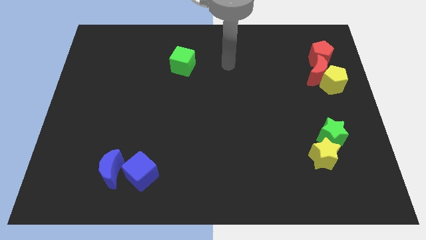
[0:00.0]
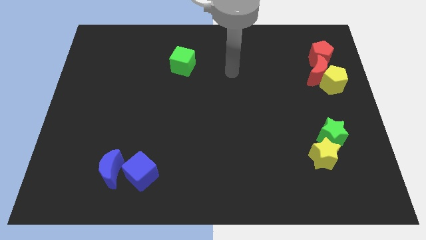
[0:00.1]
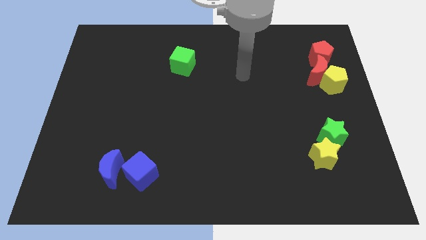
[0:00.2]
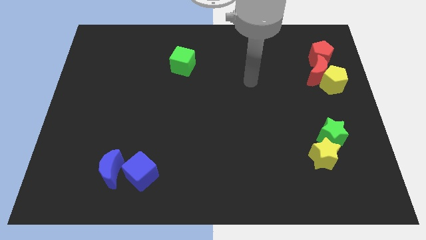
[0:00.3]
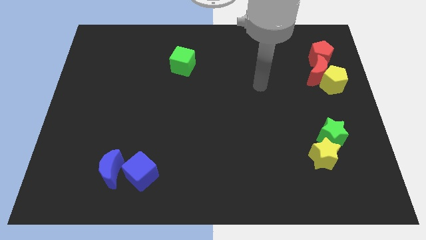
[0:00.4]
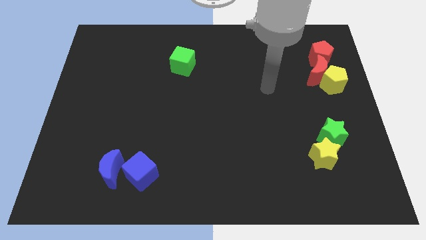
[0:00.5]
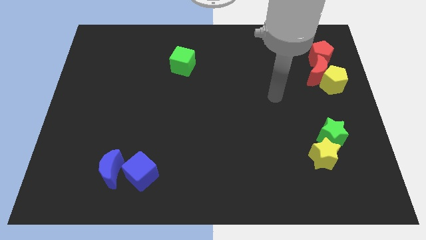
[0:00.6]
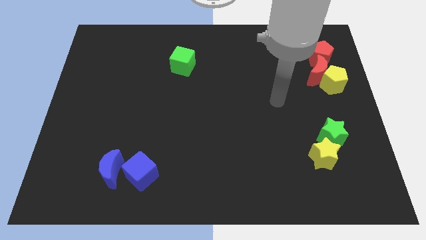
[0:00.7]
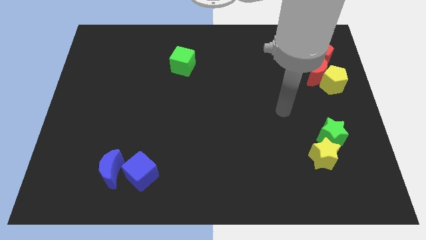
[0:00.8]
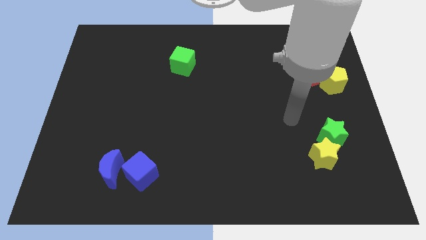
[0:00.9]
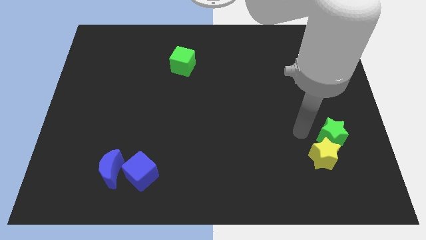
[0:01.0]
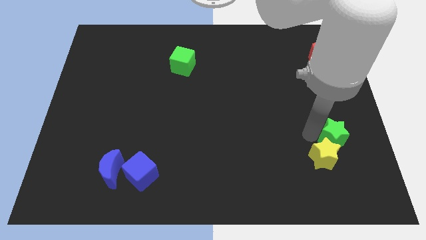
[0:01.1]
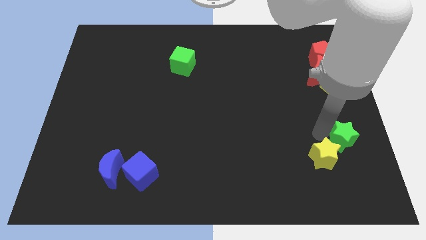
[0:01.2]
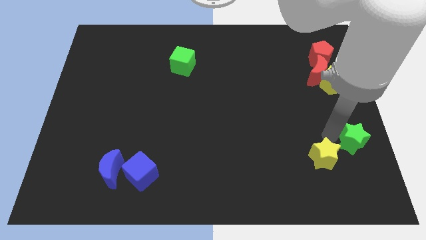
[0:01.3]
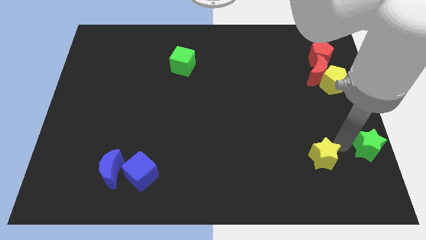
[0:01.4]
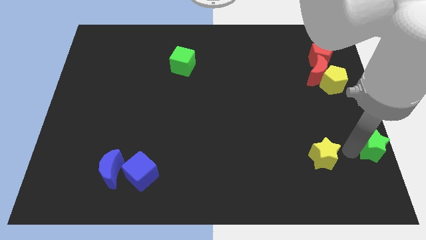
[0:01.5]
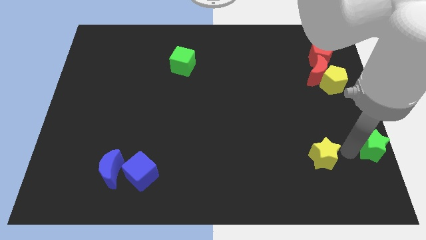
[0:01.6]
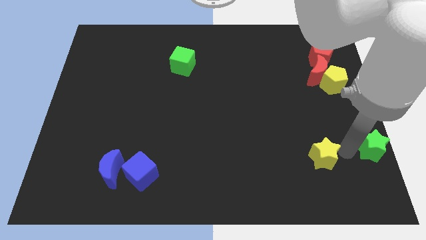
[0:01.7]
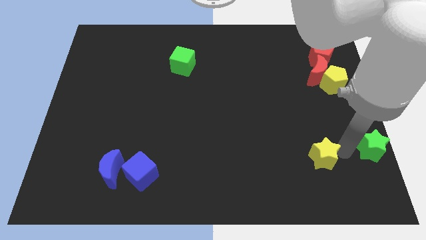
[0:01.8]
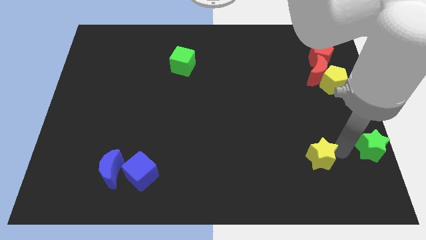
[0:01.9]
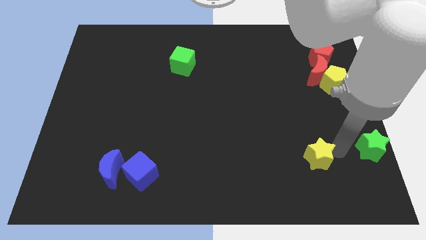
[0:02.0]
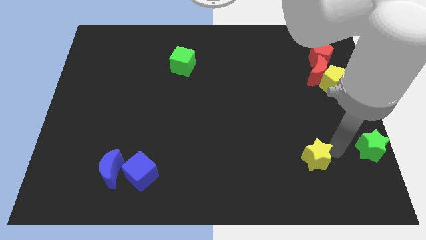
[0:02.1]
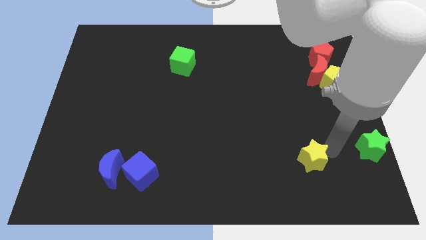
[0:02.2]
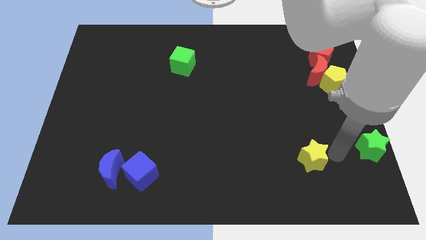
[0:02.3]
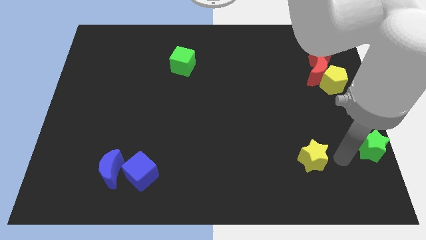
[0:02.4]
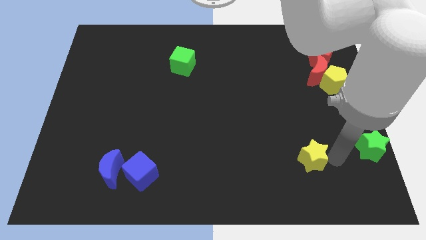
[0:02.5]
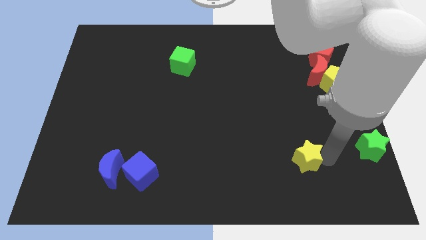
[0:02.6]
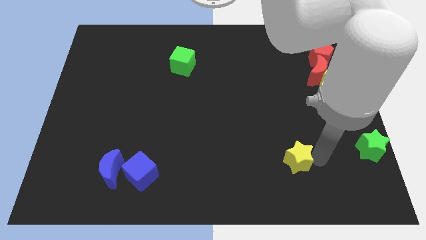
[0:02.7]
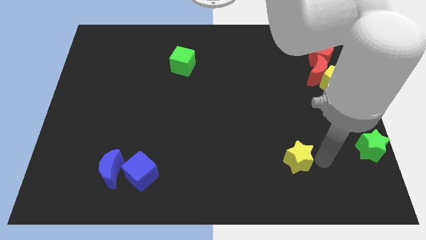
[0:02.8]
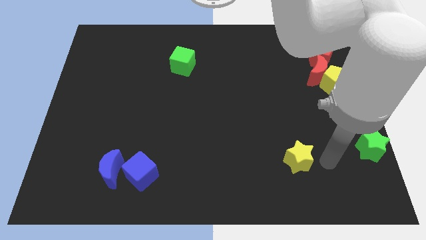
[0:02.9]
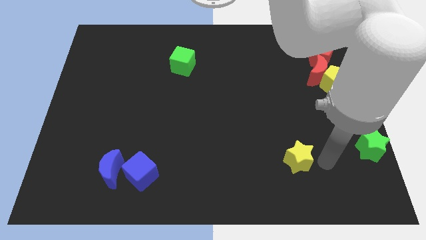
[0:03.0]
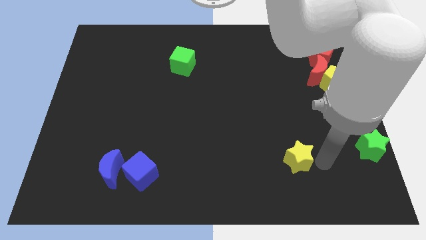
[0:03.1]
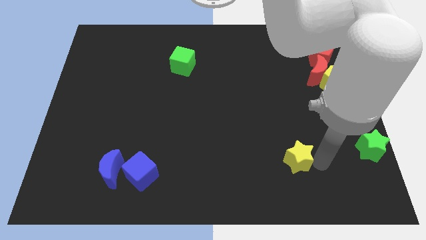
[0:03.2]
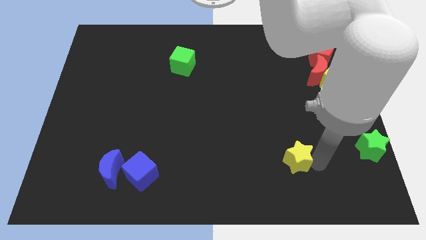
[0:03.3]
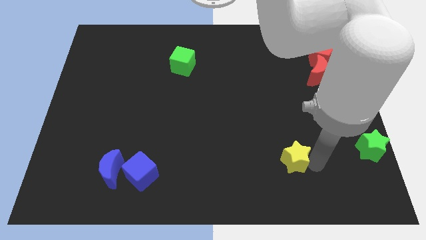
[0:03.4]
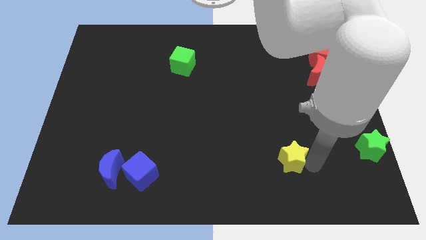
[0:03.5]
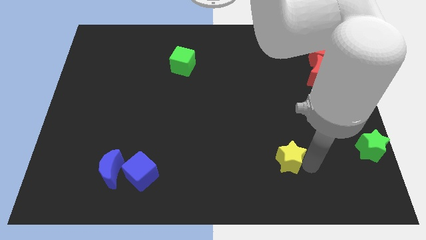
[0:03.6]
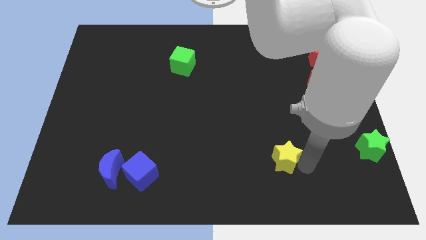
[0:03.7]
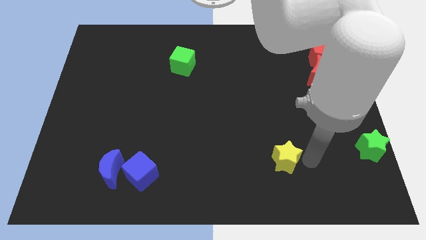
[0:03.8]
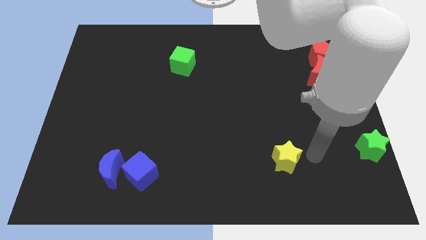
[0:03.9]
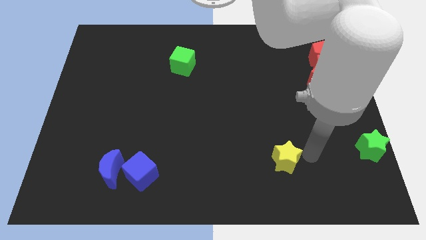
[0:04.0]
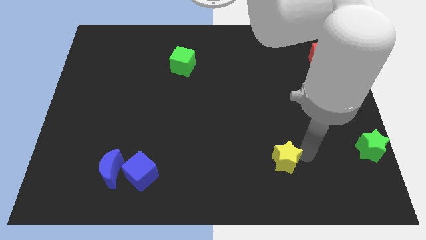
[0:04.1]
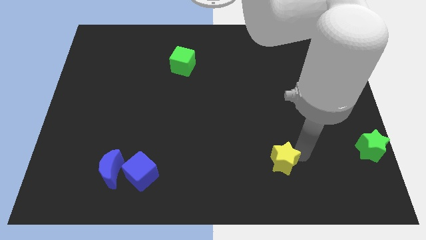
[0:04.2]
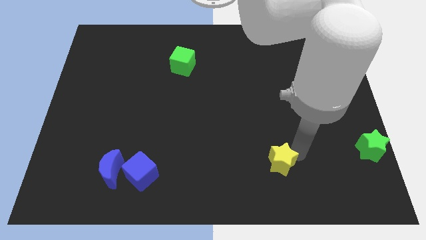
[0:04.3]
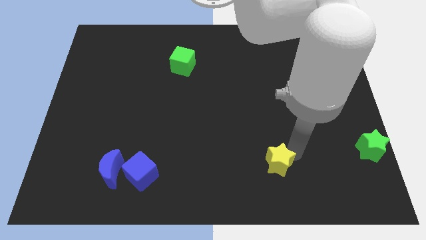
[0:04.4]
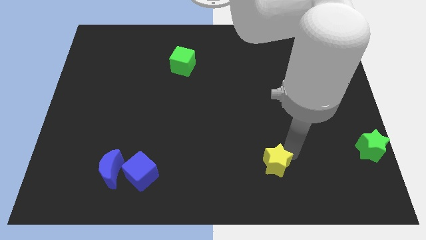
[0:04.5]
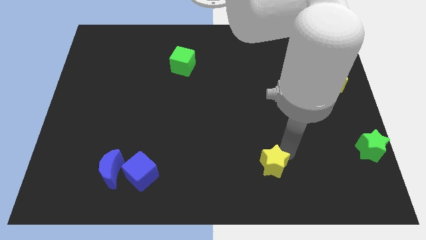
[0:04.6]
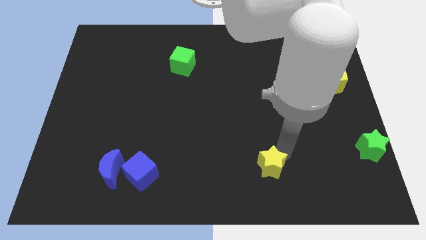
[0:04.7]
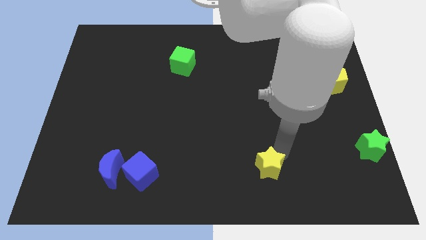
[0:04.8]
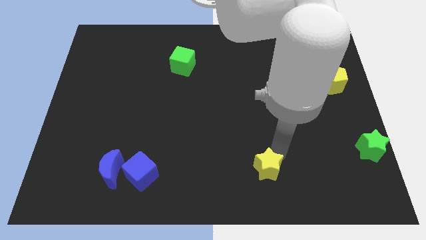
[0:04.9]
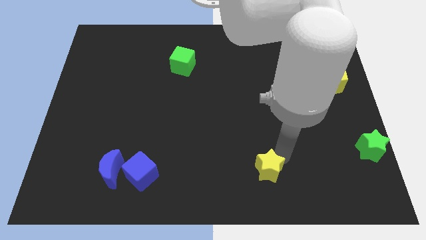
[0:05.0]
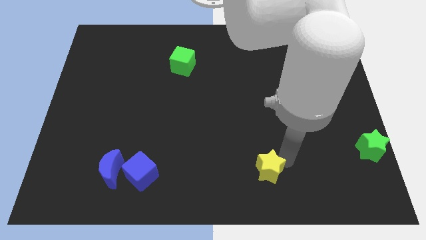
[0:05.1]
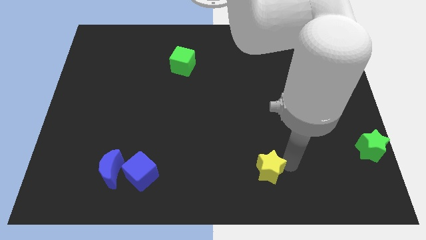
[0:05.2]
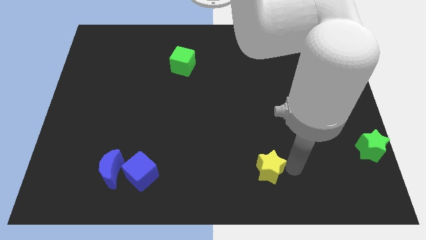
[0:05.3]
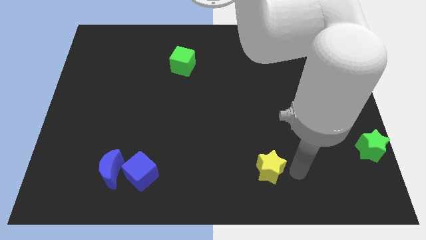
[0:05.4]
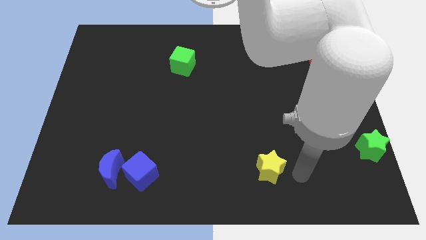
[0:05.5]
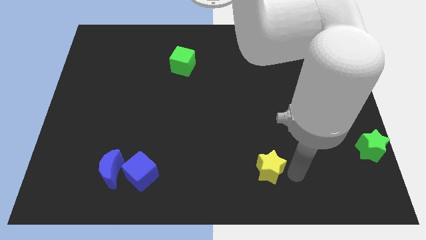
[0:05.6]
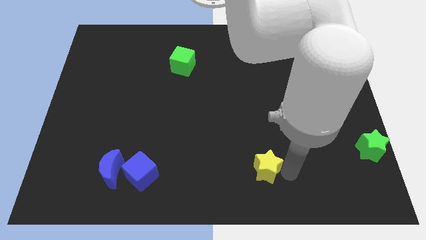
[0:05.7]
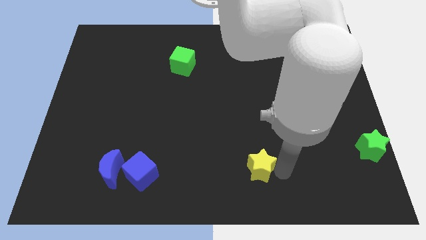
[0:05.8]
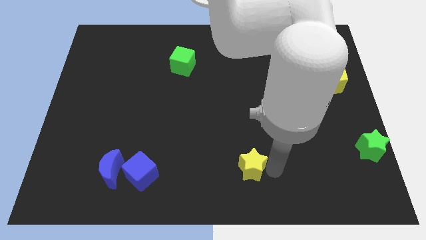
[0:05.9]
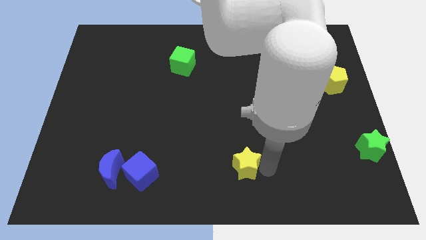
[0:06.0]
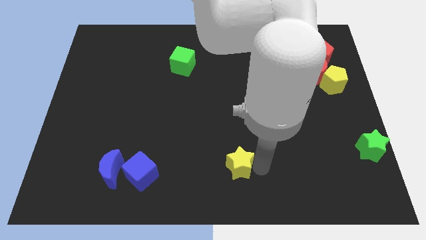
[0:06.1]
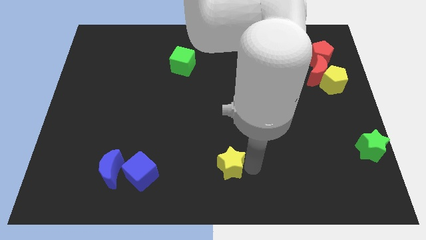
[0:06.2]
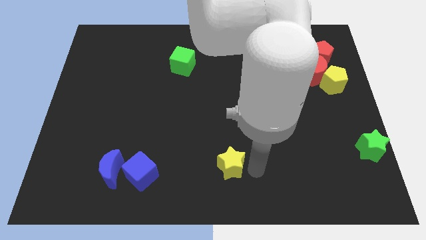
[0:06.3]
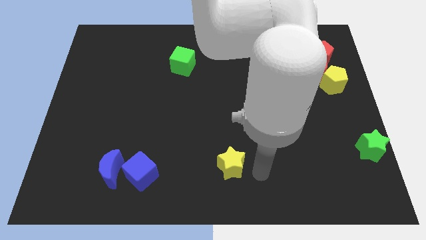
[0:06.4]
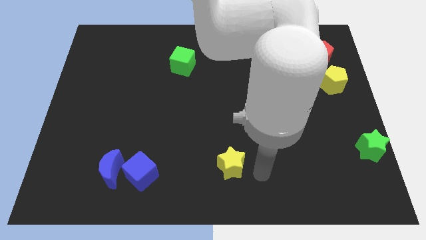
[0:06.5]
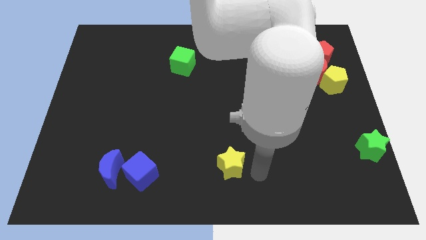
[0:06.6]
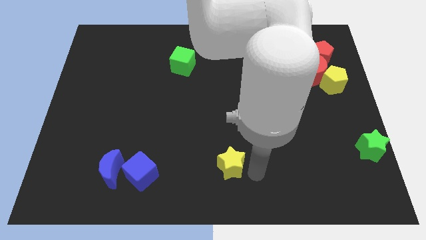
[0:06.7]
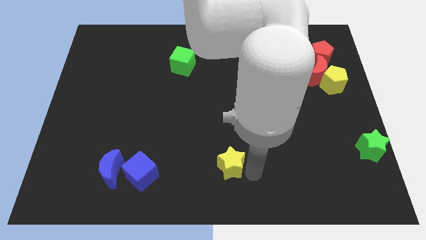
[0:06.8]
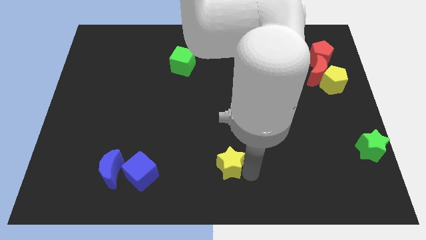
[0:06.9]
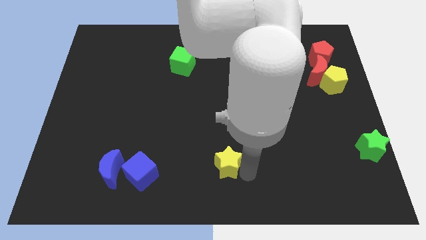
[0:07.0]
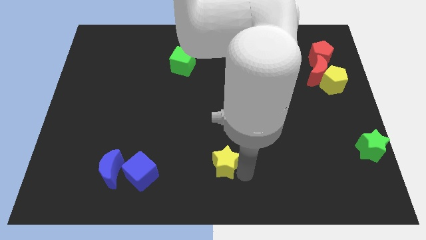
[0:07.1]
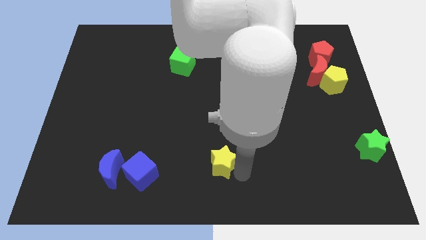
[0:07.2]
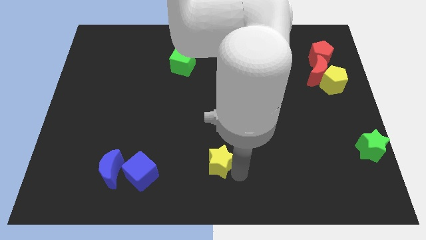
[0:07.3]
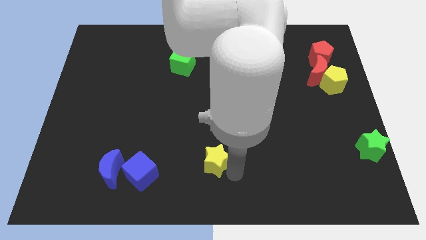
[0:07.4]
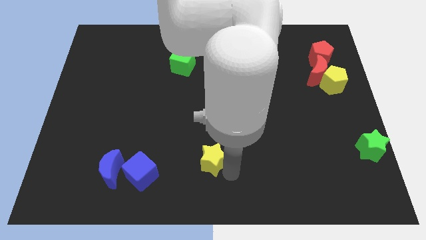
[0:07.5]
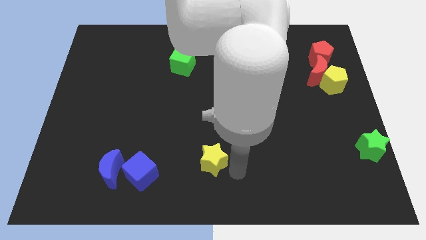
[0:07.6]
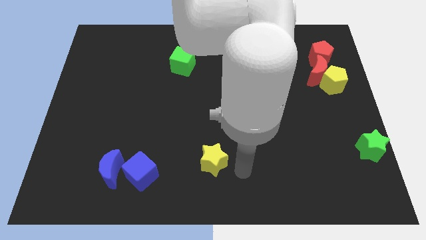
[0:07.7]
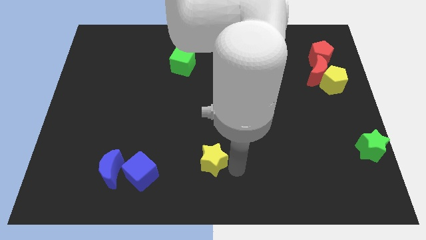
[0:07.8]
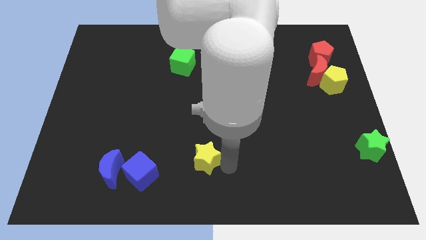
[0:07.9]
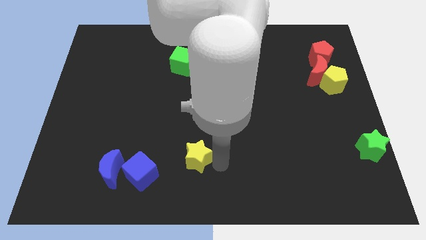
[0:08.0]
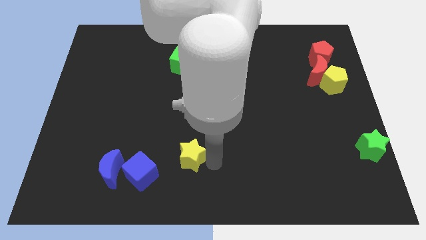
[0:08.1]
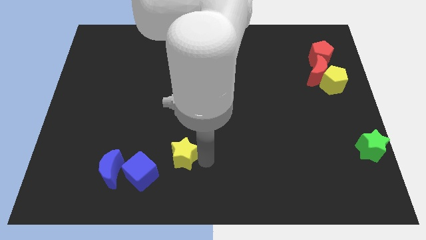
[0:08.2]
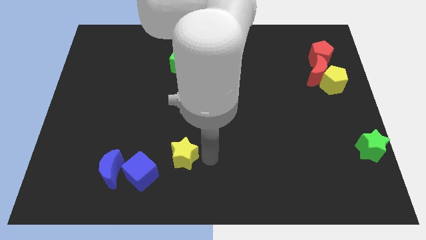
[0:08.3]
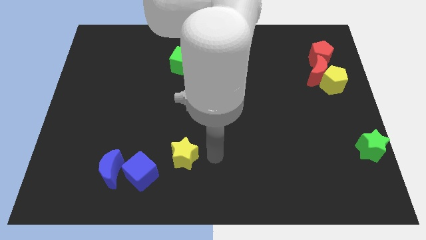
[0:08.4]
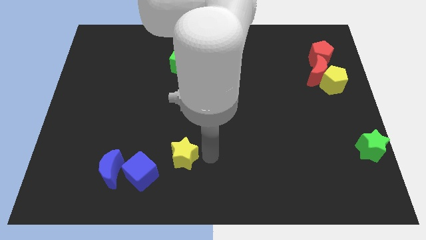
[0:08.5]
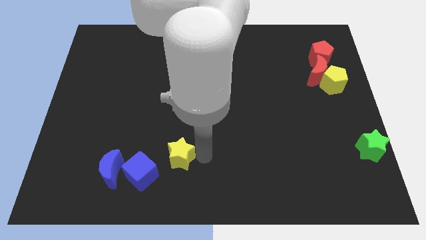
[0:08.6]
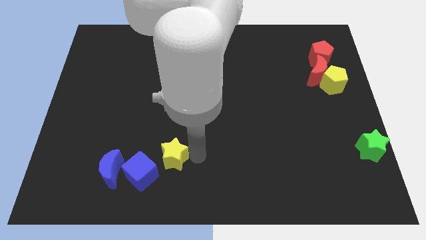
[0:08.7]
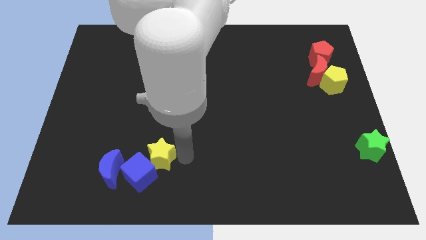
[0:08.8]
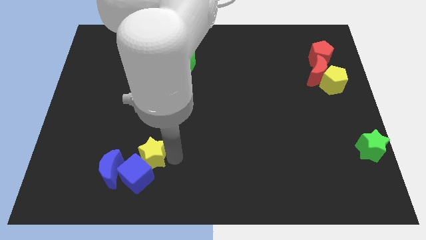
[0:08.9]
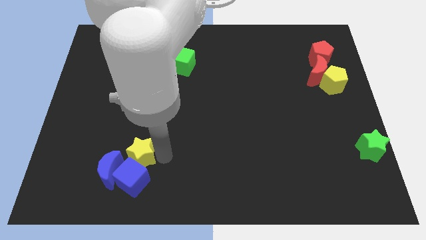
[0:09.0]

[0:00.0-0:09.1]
move the yellow star to the top left side of the blue cube
